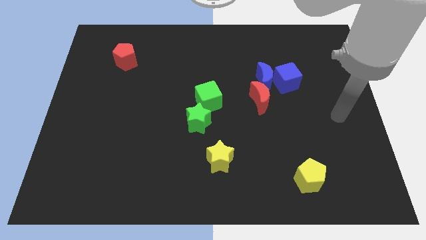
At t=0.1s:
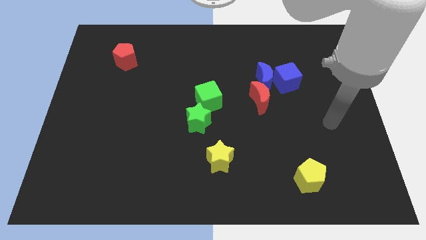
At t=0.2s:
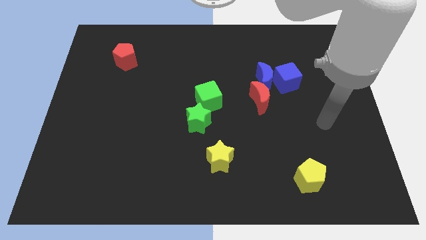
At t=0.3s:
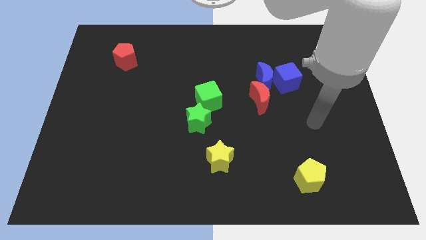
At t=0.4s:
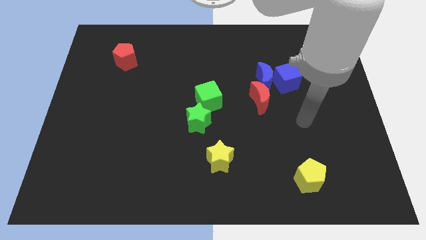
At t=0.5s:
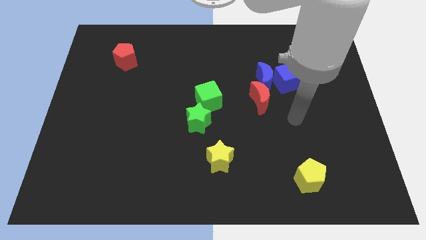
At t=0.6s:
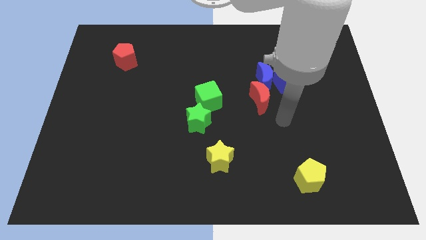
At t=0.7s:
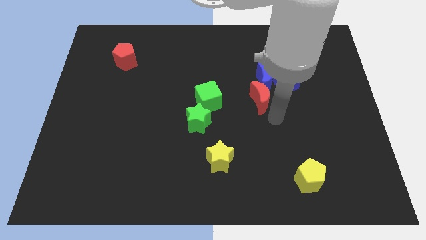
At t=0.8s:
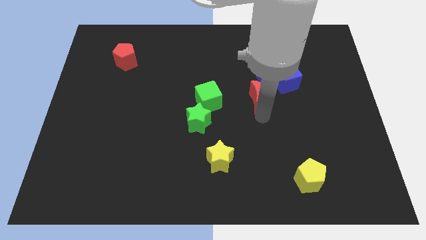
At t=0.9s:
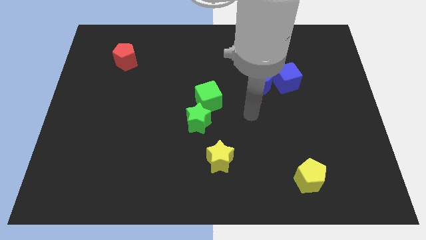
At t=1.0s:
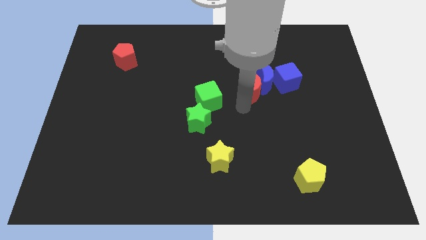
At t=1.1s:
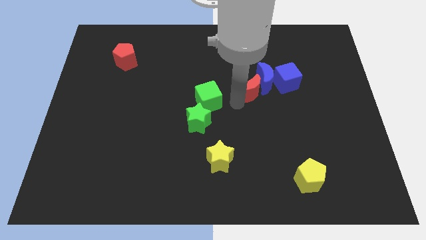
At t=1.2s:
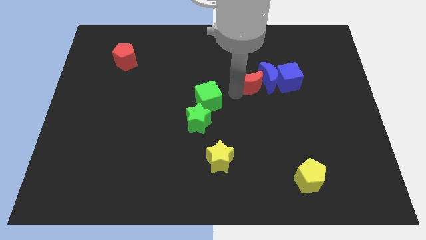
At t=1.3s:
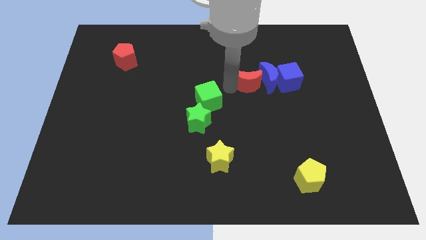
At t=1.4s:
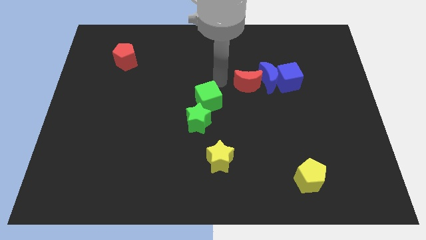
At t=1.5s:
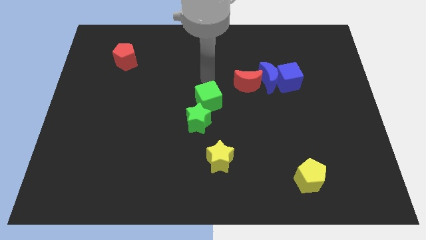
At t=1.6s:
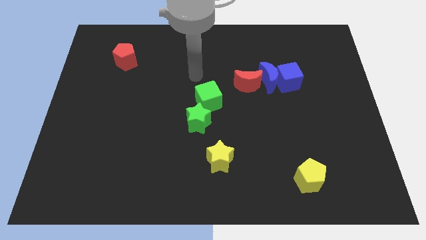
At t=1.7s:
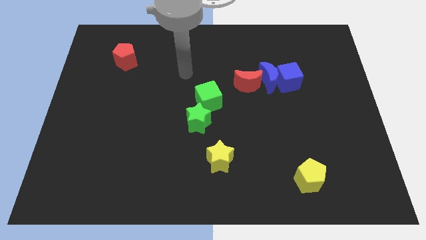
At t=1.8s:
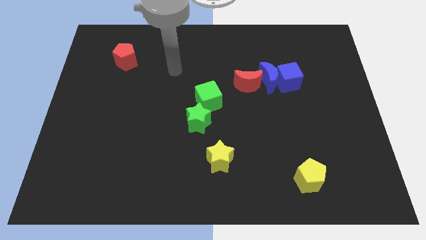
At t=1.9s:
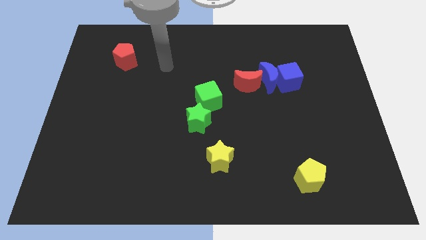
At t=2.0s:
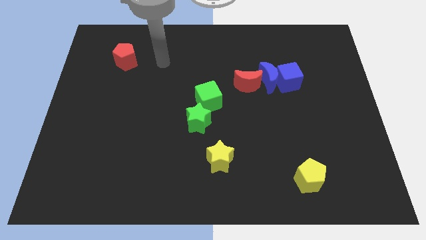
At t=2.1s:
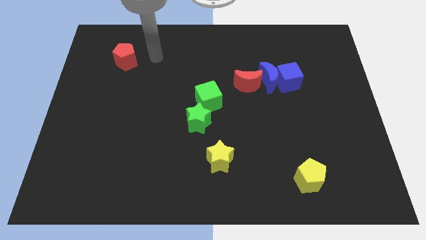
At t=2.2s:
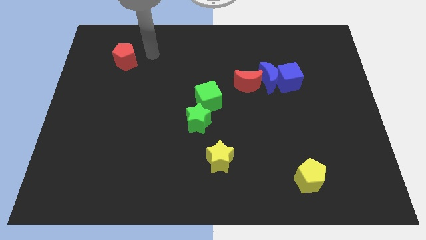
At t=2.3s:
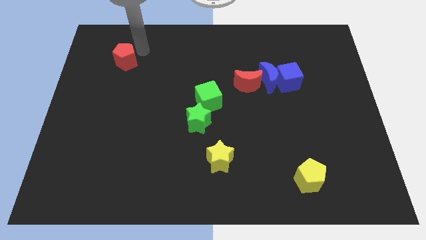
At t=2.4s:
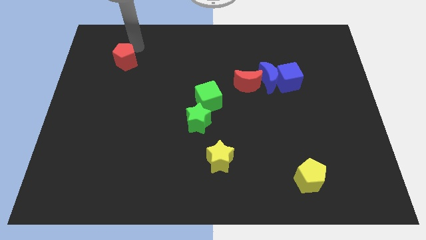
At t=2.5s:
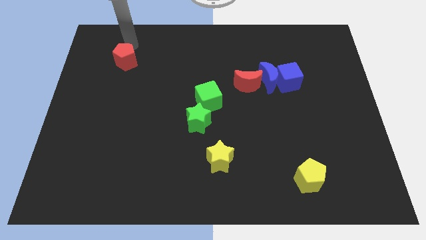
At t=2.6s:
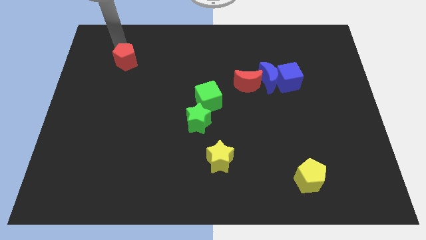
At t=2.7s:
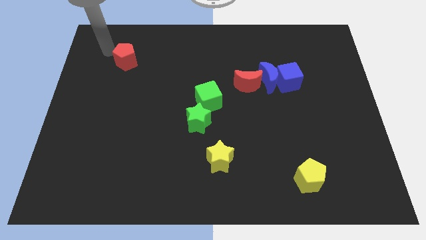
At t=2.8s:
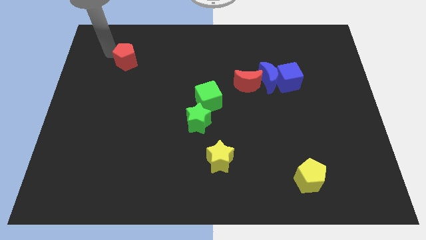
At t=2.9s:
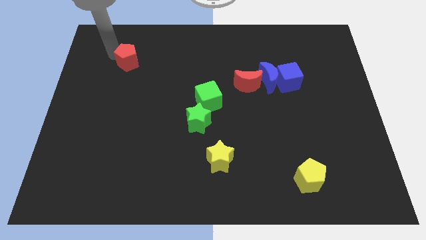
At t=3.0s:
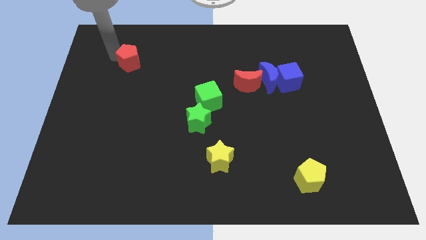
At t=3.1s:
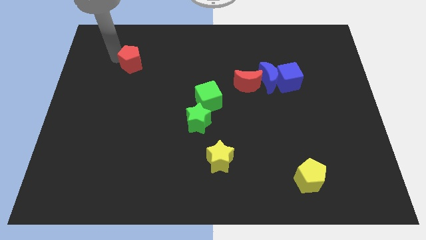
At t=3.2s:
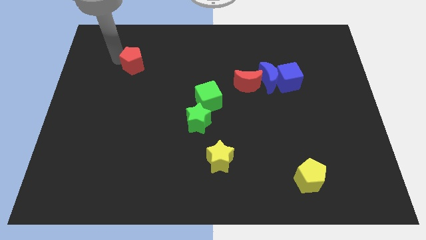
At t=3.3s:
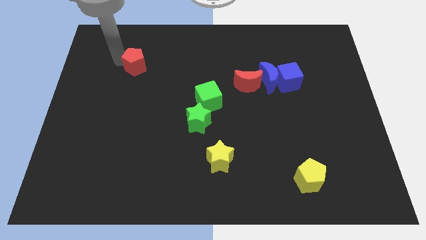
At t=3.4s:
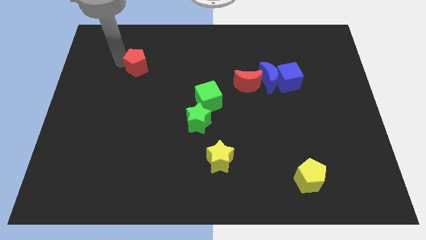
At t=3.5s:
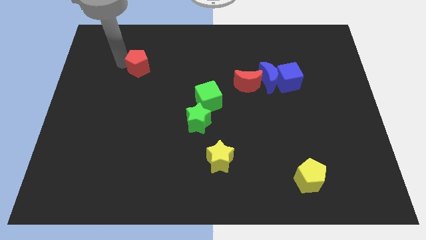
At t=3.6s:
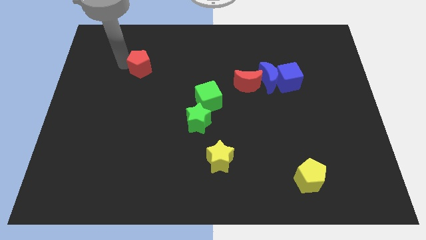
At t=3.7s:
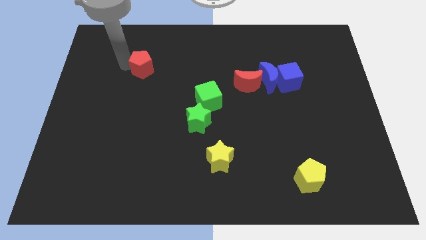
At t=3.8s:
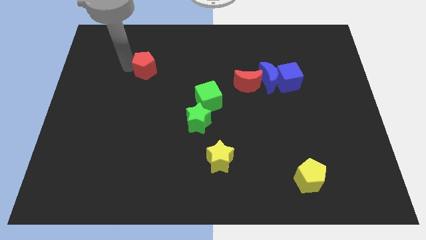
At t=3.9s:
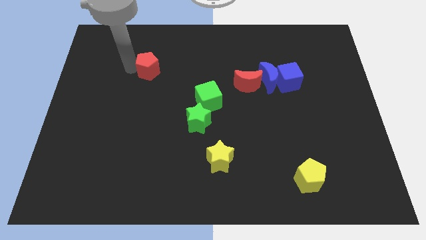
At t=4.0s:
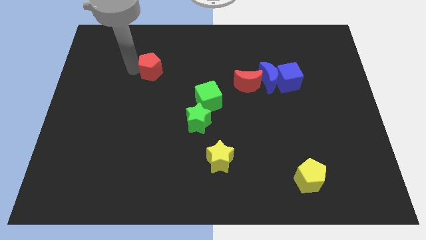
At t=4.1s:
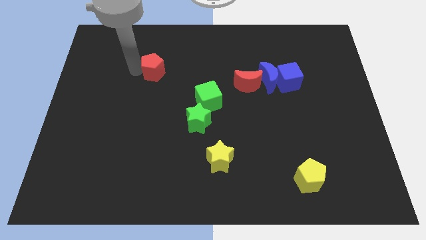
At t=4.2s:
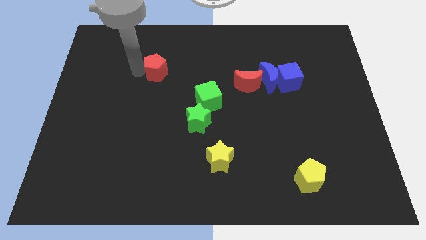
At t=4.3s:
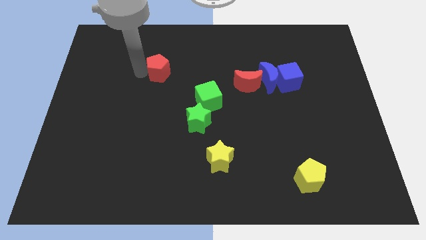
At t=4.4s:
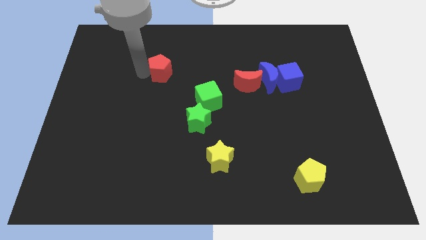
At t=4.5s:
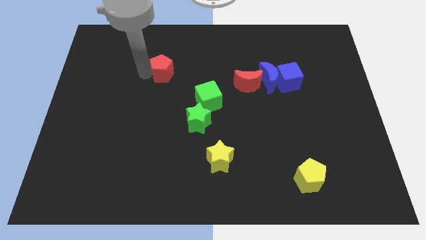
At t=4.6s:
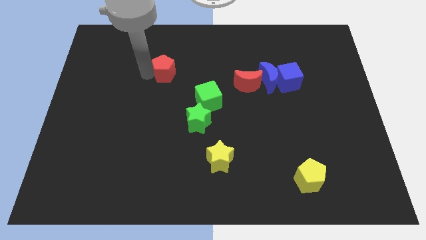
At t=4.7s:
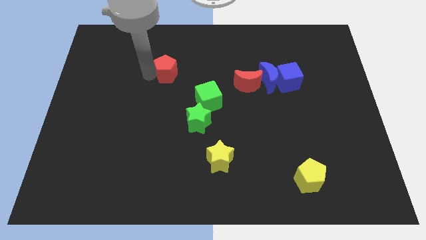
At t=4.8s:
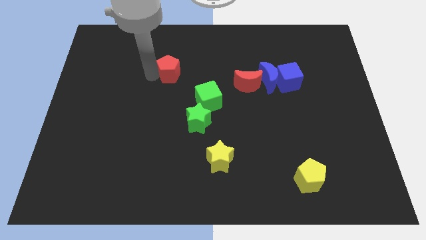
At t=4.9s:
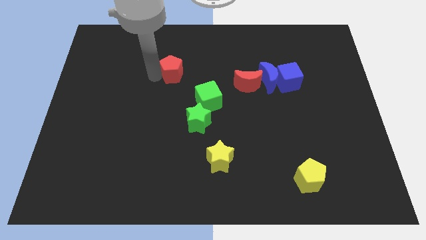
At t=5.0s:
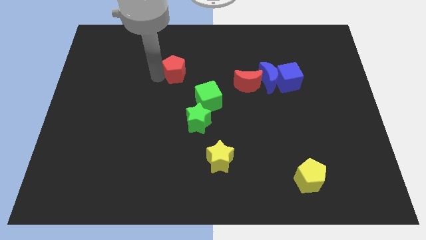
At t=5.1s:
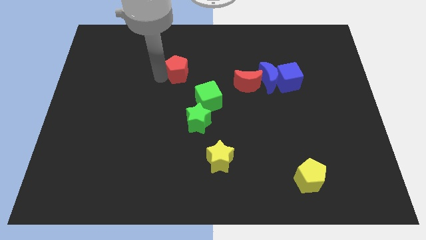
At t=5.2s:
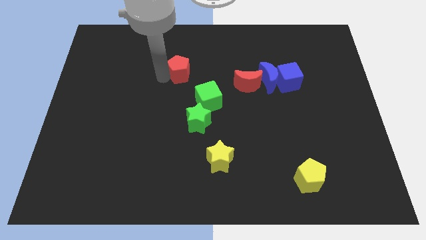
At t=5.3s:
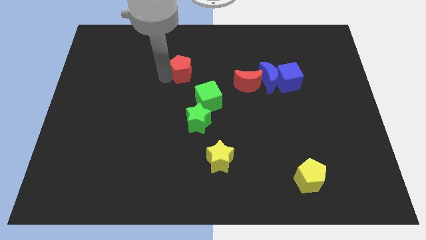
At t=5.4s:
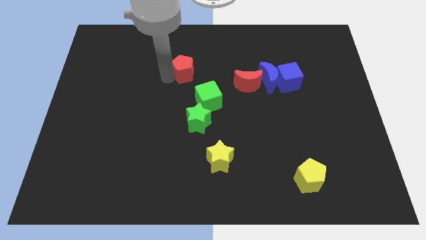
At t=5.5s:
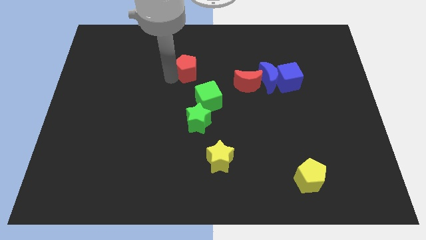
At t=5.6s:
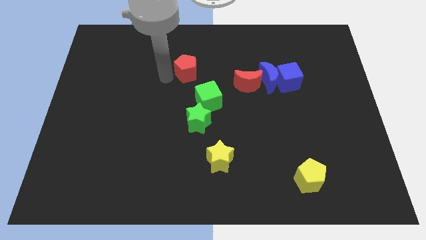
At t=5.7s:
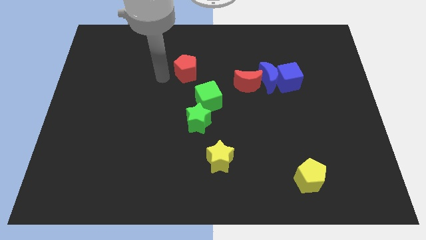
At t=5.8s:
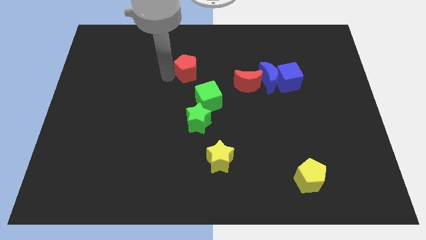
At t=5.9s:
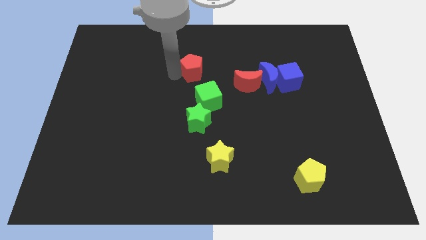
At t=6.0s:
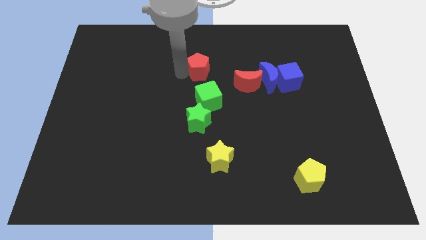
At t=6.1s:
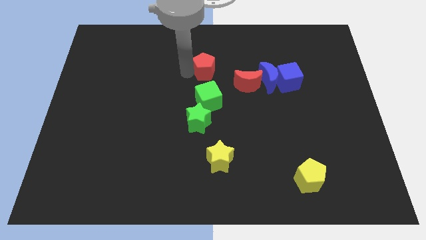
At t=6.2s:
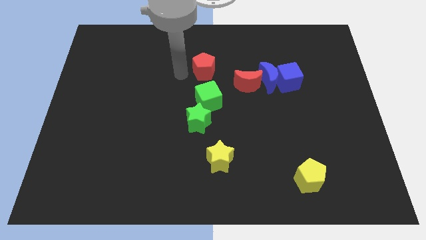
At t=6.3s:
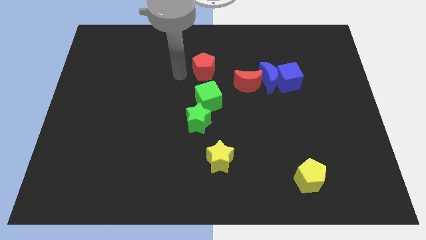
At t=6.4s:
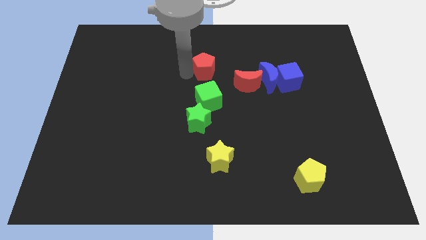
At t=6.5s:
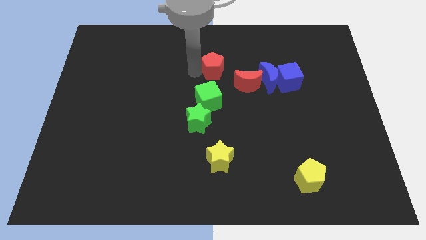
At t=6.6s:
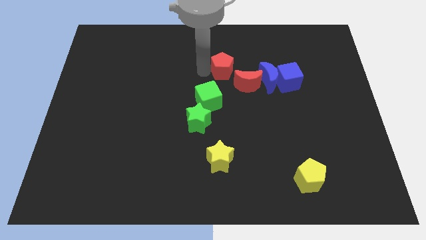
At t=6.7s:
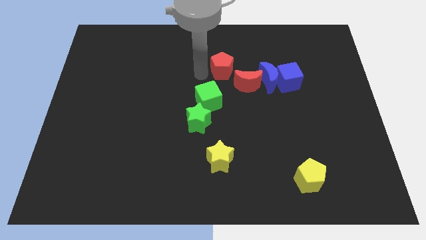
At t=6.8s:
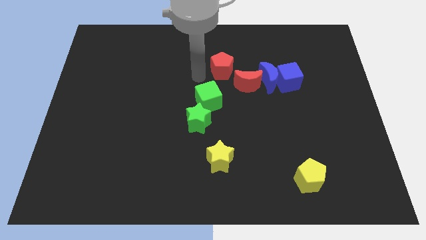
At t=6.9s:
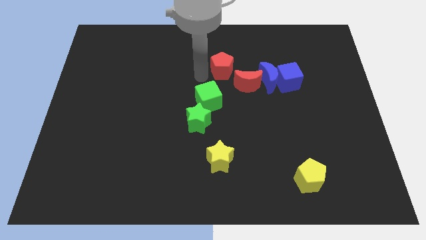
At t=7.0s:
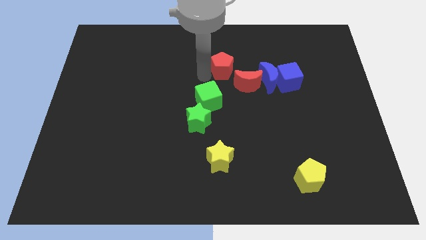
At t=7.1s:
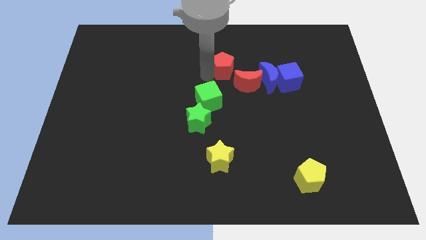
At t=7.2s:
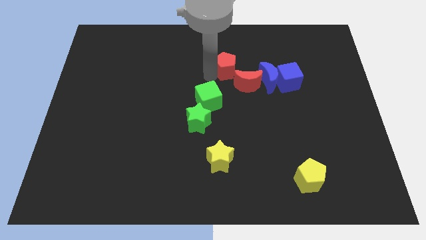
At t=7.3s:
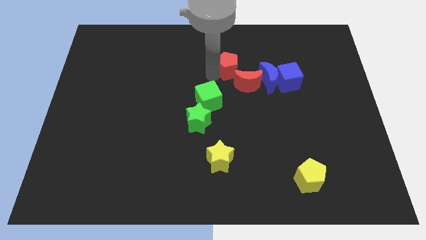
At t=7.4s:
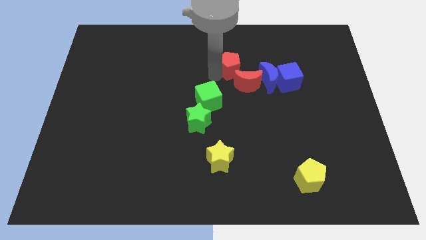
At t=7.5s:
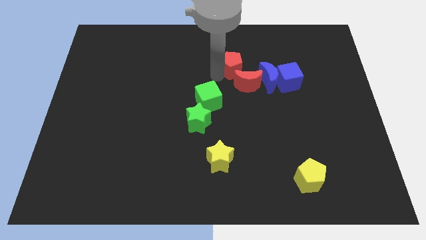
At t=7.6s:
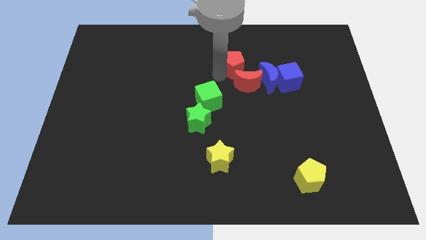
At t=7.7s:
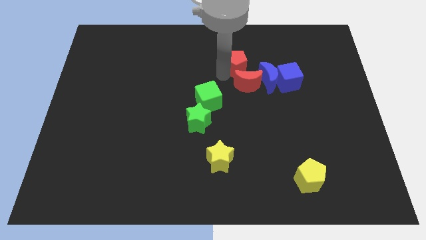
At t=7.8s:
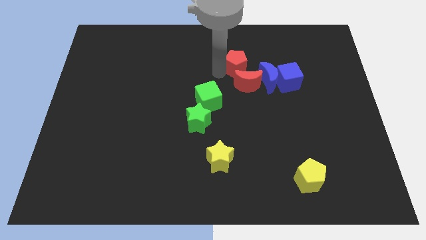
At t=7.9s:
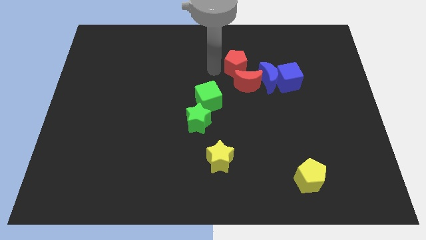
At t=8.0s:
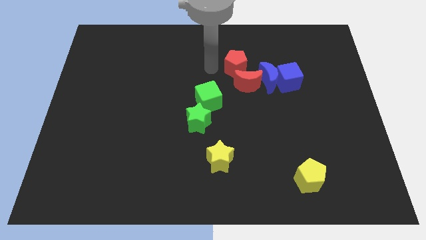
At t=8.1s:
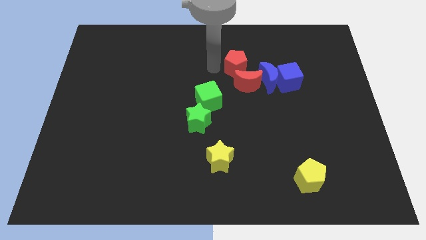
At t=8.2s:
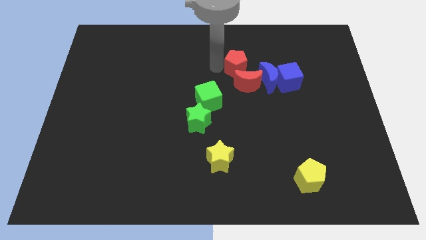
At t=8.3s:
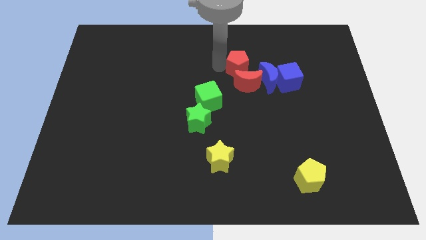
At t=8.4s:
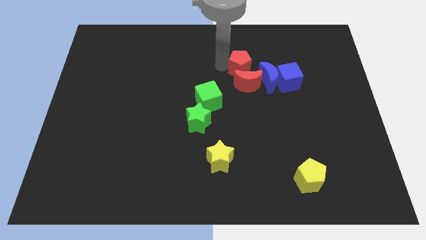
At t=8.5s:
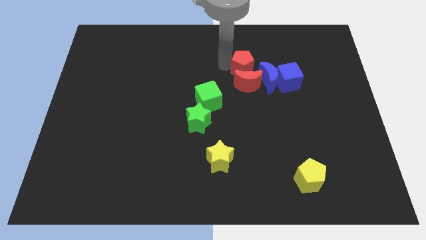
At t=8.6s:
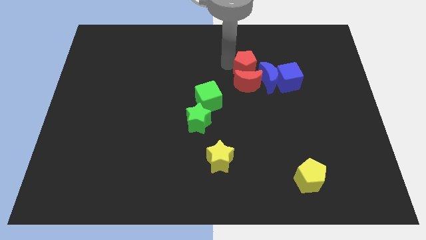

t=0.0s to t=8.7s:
move the red pentagon to the top left side of the blue cube
